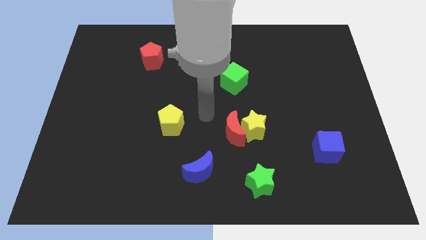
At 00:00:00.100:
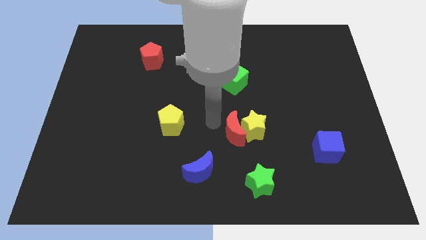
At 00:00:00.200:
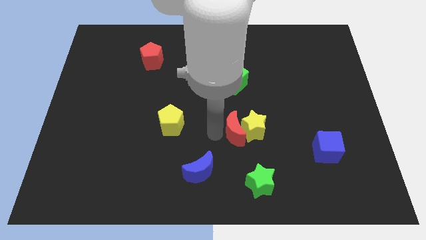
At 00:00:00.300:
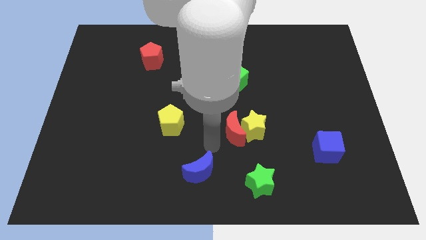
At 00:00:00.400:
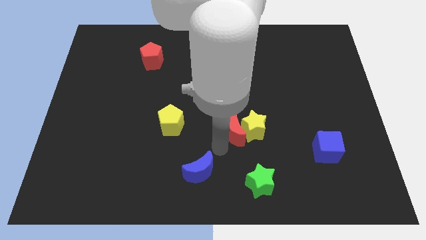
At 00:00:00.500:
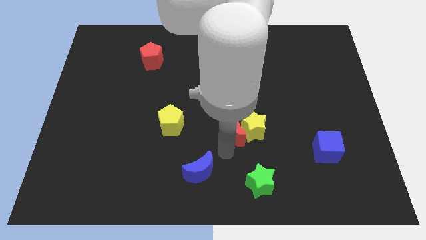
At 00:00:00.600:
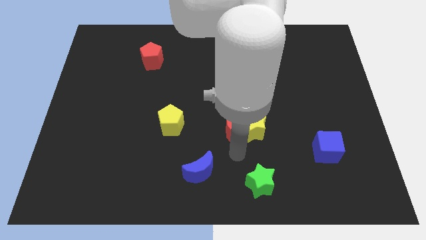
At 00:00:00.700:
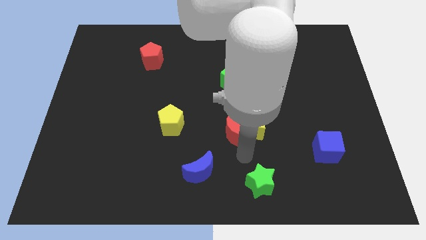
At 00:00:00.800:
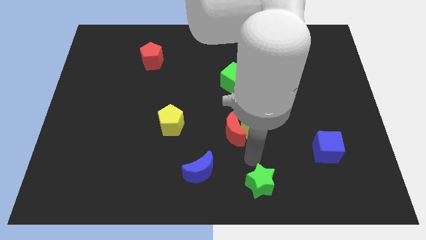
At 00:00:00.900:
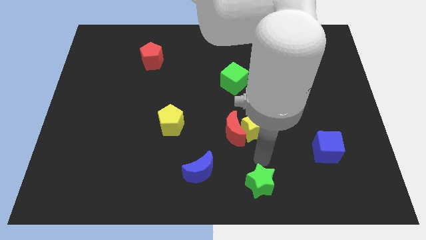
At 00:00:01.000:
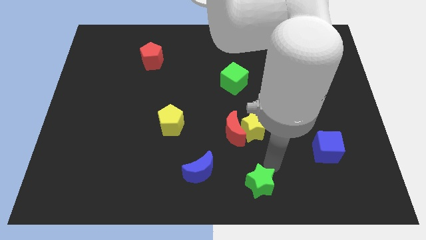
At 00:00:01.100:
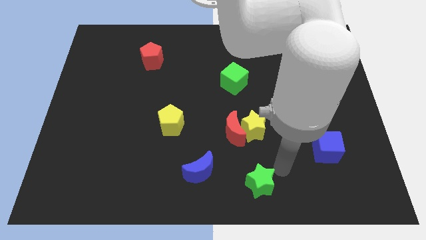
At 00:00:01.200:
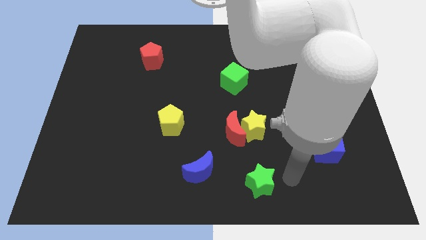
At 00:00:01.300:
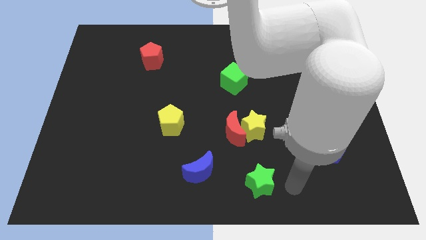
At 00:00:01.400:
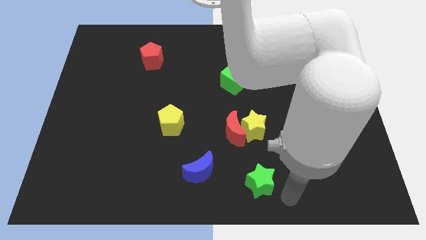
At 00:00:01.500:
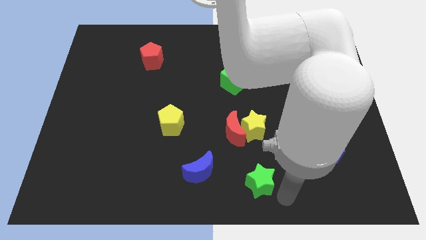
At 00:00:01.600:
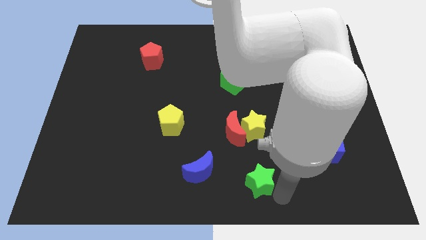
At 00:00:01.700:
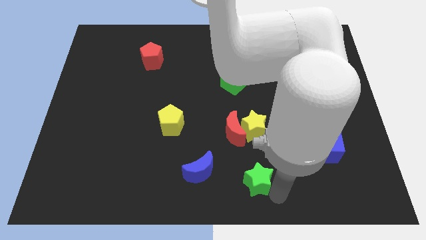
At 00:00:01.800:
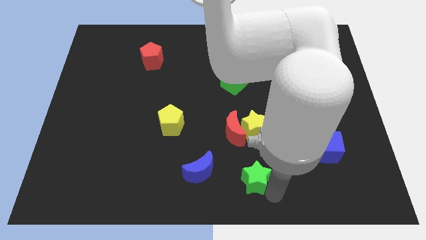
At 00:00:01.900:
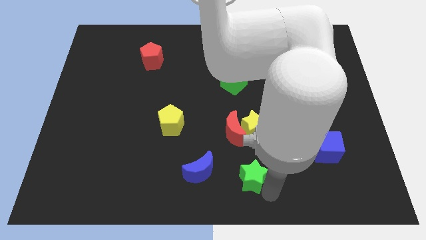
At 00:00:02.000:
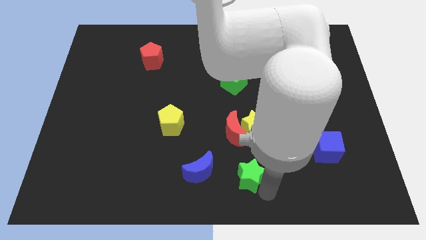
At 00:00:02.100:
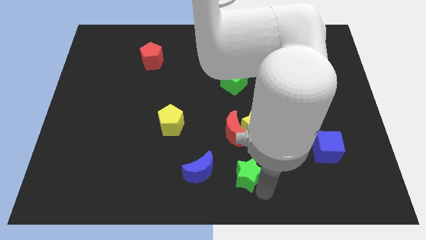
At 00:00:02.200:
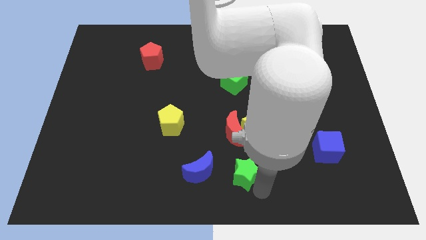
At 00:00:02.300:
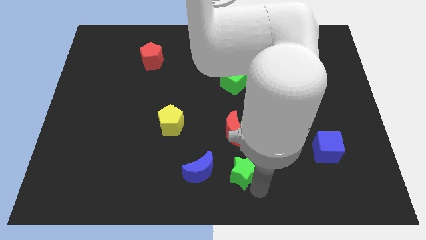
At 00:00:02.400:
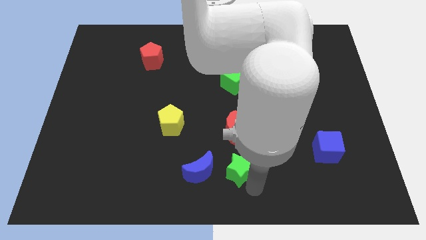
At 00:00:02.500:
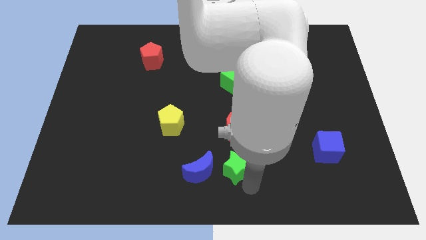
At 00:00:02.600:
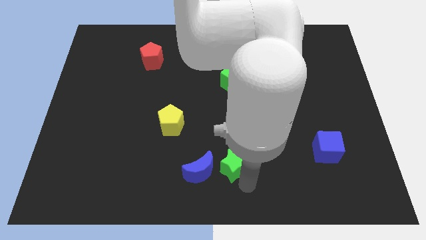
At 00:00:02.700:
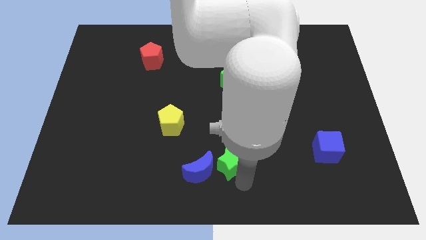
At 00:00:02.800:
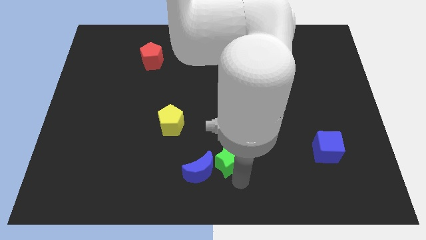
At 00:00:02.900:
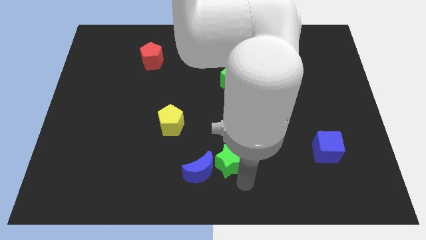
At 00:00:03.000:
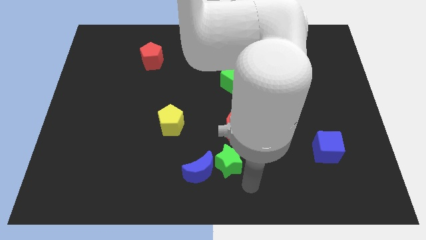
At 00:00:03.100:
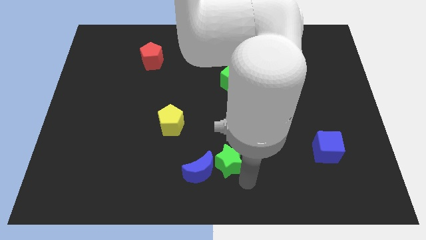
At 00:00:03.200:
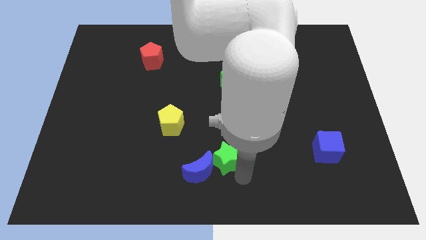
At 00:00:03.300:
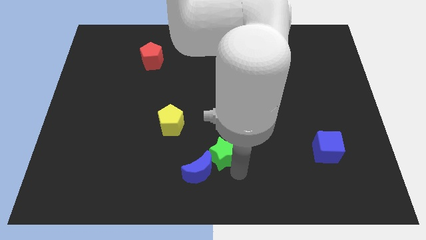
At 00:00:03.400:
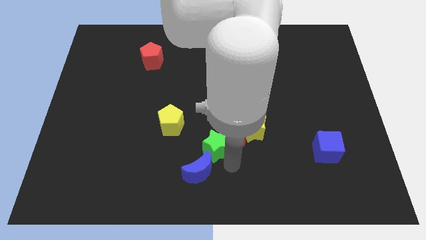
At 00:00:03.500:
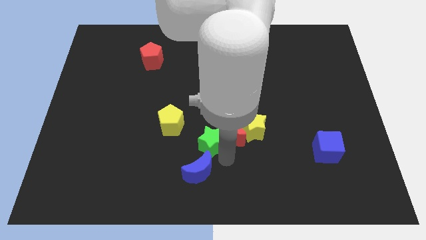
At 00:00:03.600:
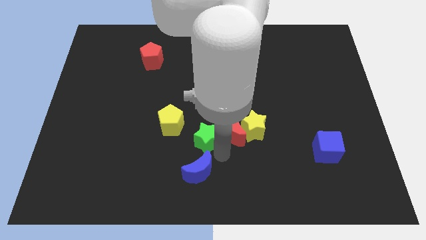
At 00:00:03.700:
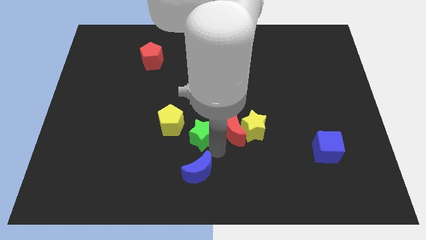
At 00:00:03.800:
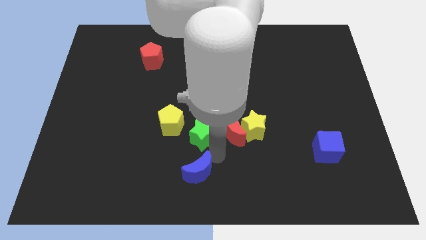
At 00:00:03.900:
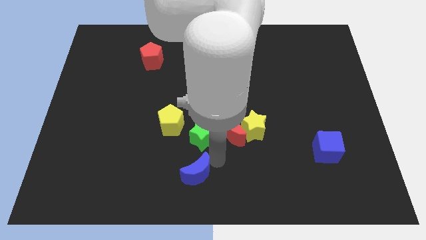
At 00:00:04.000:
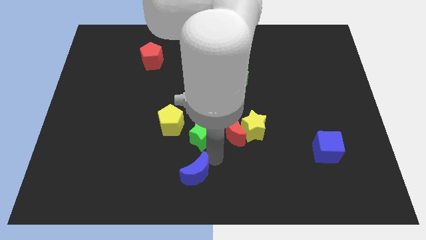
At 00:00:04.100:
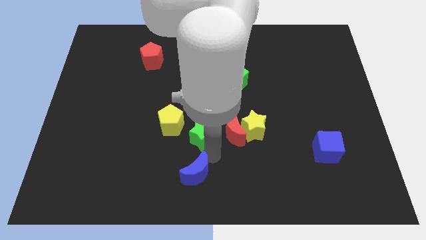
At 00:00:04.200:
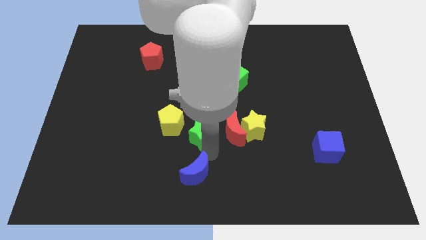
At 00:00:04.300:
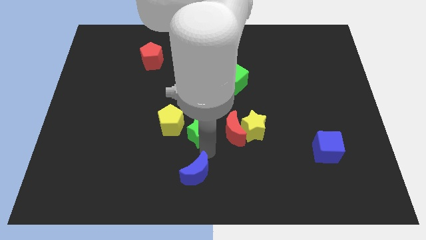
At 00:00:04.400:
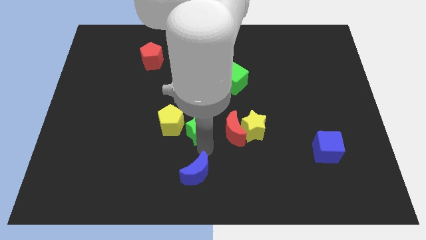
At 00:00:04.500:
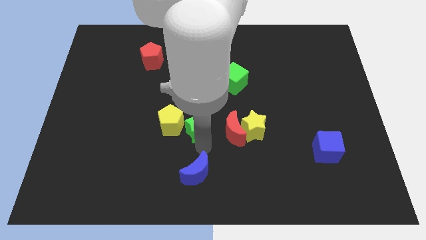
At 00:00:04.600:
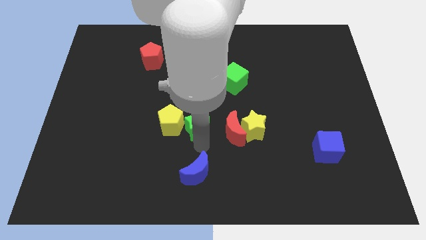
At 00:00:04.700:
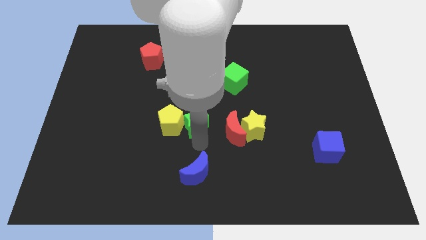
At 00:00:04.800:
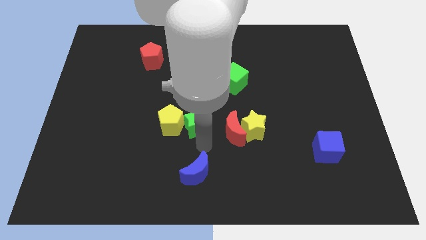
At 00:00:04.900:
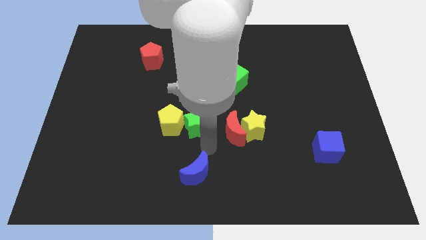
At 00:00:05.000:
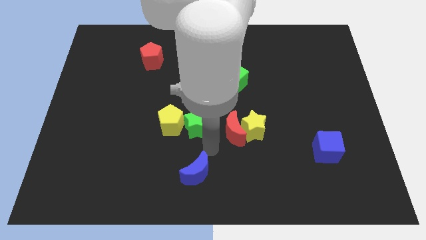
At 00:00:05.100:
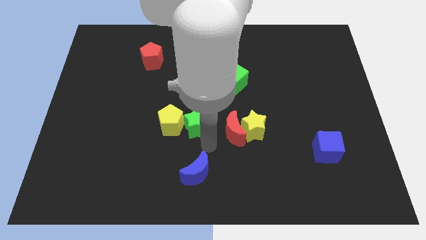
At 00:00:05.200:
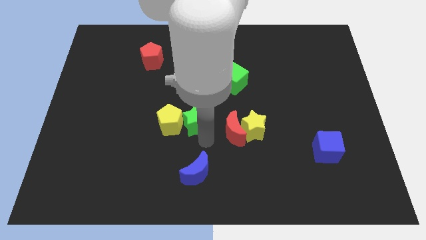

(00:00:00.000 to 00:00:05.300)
push the green star up and to the left

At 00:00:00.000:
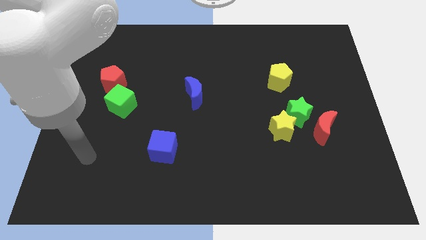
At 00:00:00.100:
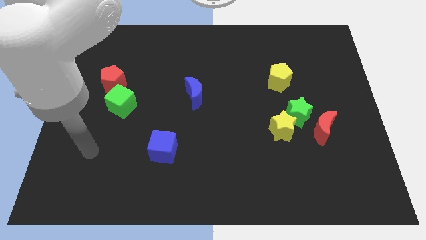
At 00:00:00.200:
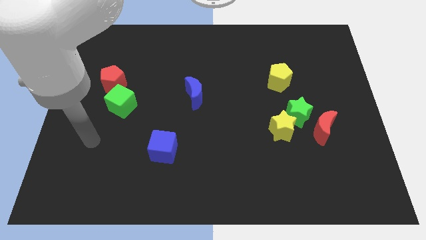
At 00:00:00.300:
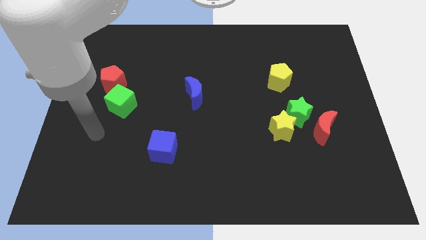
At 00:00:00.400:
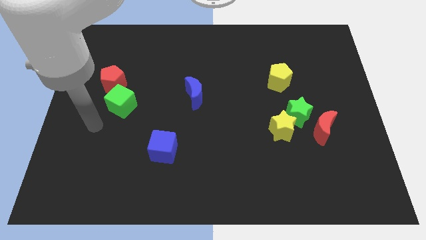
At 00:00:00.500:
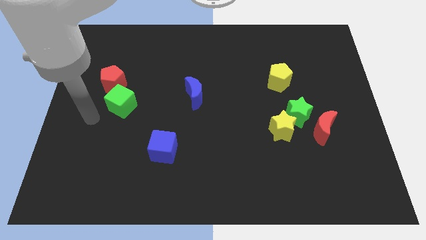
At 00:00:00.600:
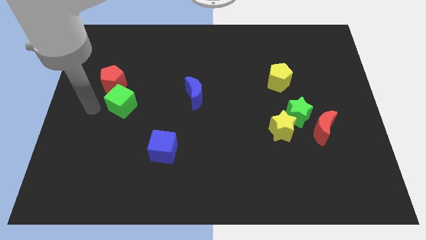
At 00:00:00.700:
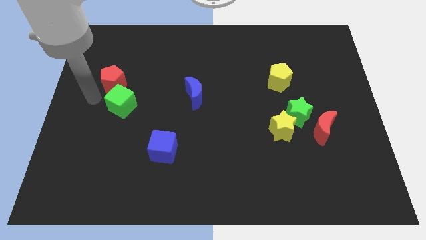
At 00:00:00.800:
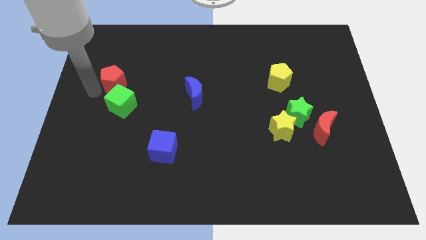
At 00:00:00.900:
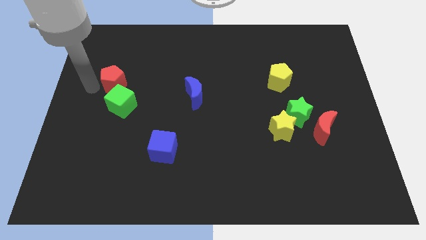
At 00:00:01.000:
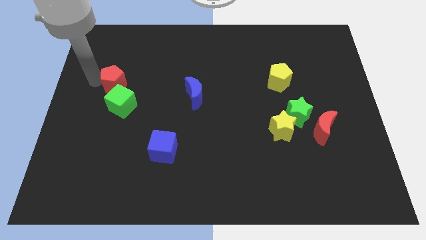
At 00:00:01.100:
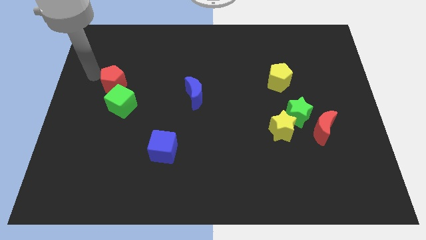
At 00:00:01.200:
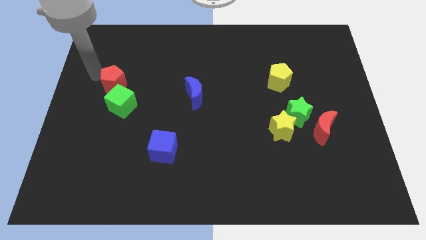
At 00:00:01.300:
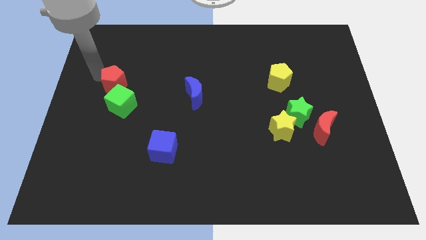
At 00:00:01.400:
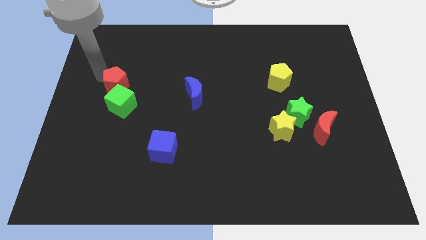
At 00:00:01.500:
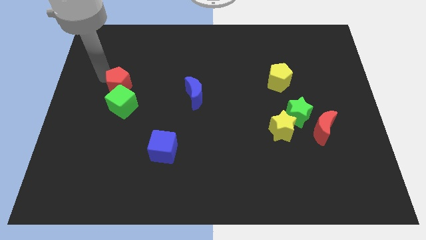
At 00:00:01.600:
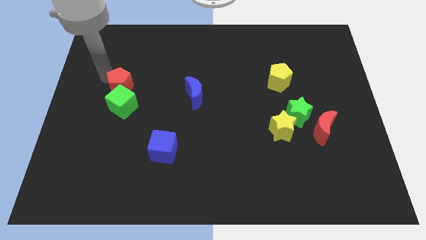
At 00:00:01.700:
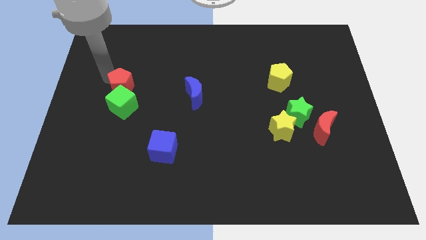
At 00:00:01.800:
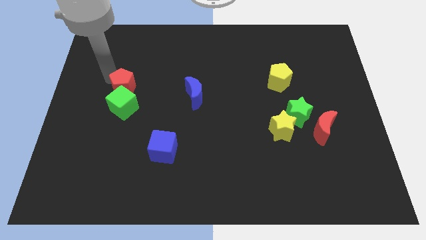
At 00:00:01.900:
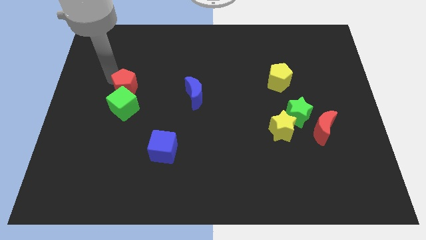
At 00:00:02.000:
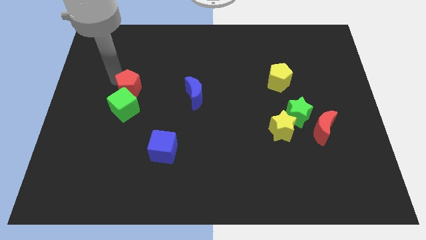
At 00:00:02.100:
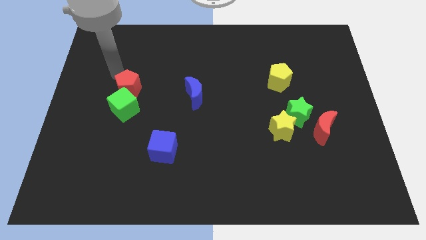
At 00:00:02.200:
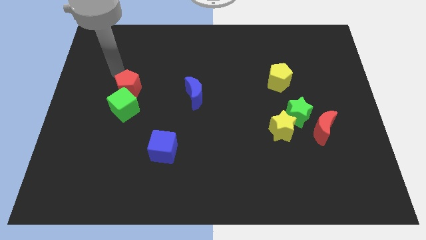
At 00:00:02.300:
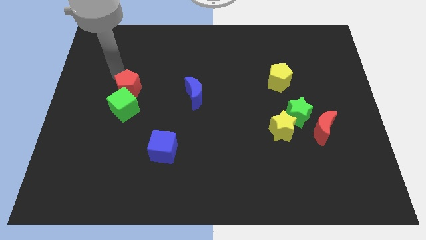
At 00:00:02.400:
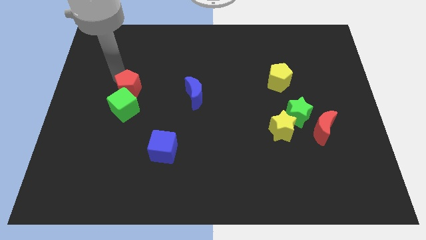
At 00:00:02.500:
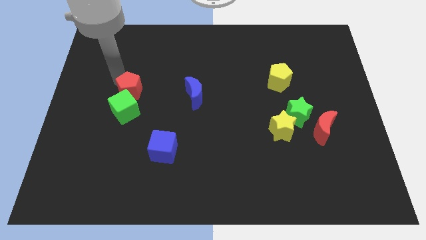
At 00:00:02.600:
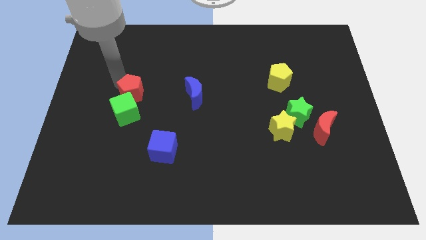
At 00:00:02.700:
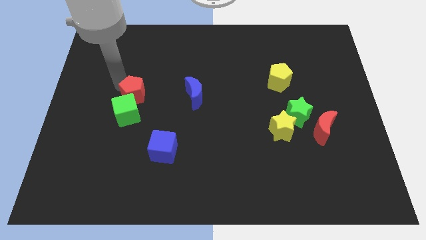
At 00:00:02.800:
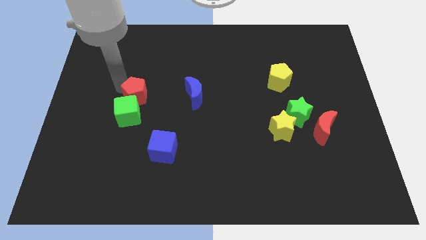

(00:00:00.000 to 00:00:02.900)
push the red pentagon somewhat diagonally downwards and right
